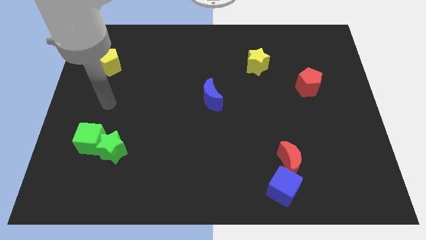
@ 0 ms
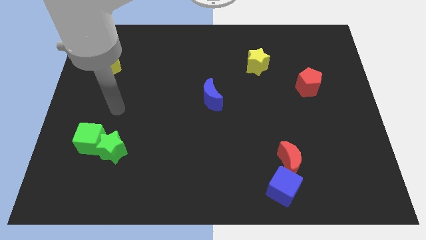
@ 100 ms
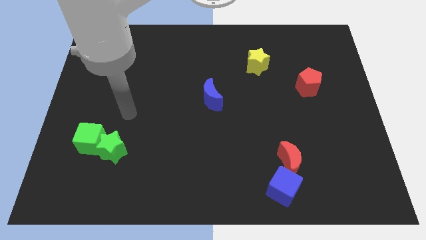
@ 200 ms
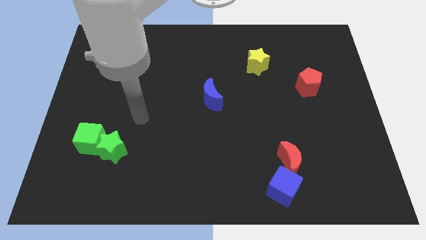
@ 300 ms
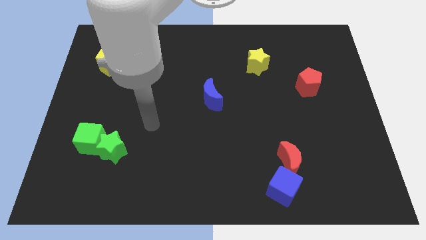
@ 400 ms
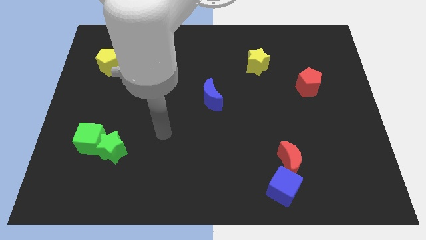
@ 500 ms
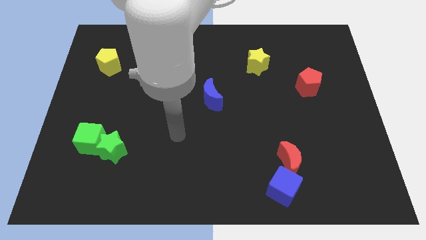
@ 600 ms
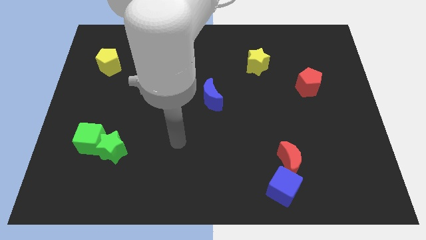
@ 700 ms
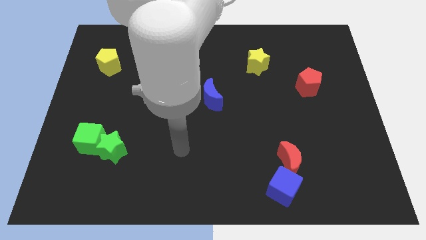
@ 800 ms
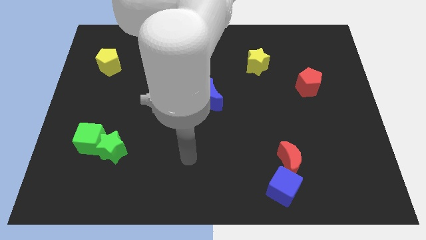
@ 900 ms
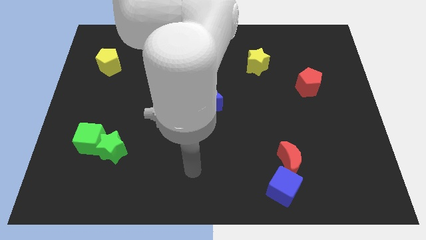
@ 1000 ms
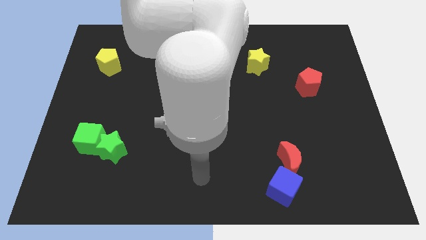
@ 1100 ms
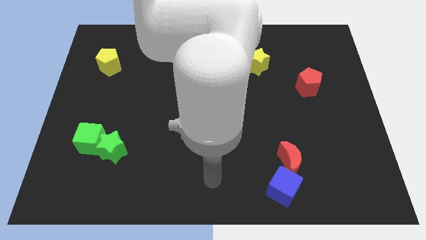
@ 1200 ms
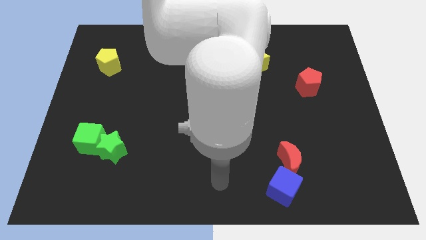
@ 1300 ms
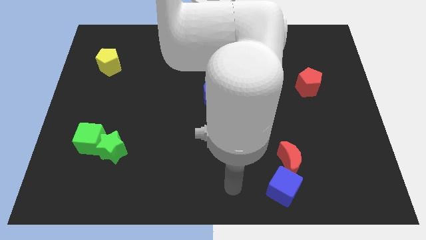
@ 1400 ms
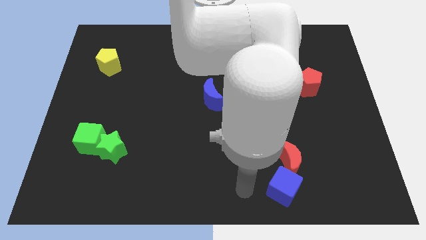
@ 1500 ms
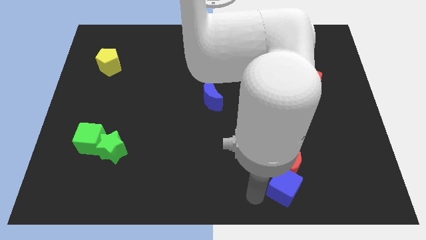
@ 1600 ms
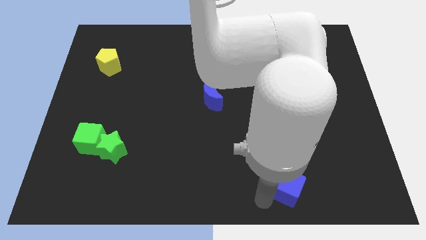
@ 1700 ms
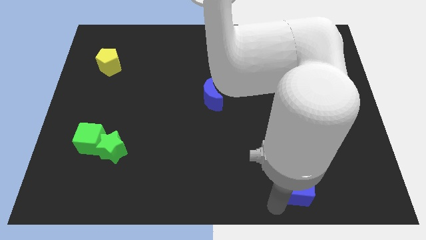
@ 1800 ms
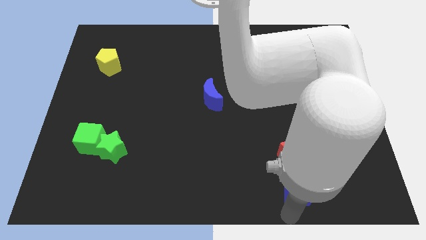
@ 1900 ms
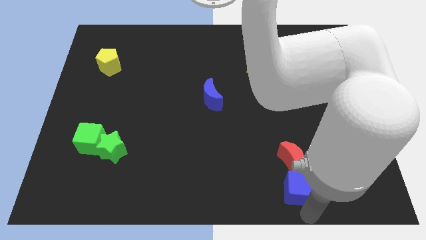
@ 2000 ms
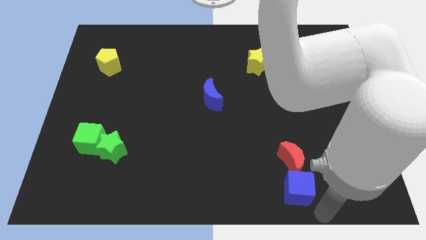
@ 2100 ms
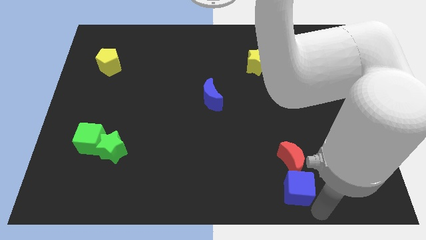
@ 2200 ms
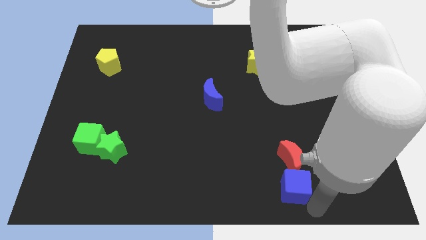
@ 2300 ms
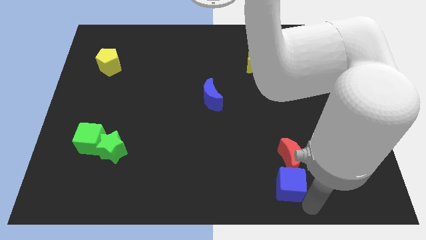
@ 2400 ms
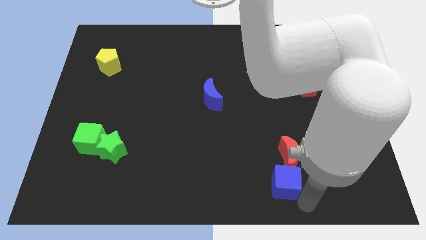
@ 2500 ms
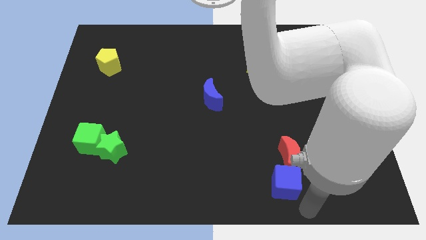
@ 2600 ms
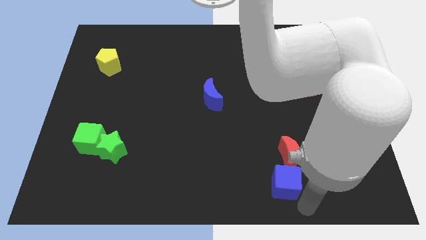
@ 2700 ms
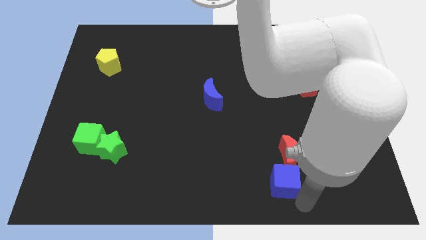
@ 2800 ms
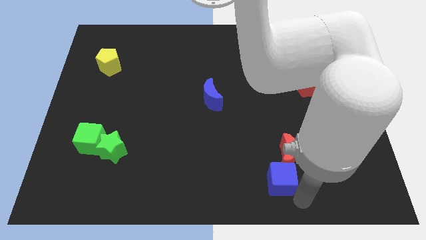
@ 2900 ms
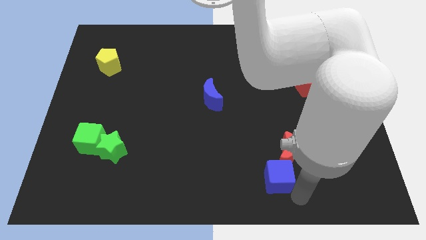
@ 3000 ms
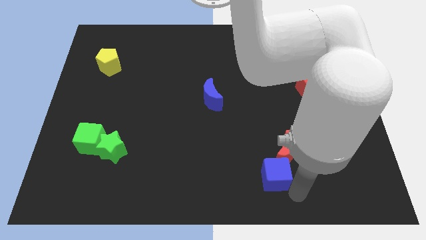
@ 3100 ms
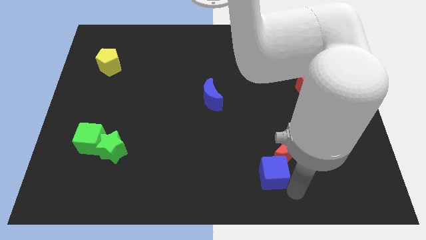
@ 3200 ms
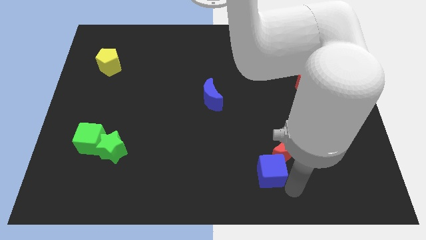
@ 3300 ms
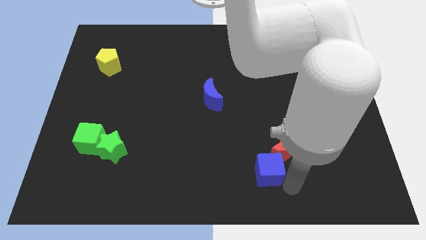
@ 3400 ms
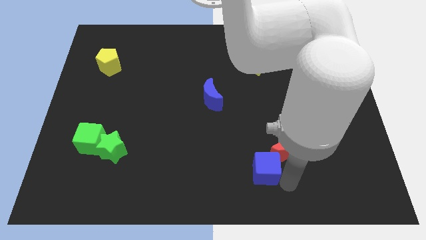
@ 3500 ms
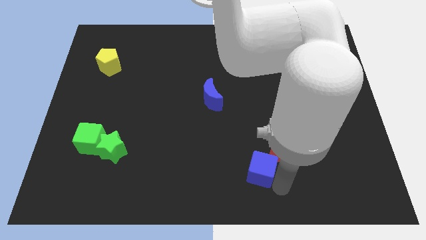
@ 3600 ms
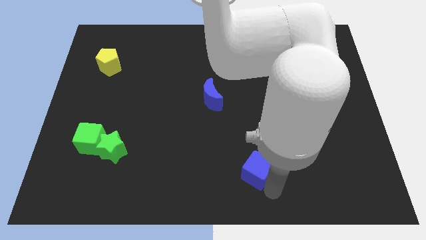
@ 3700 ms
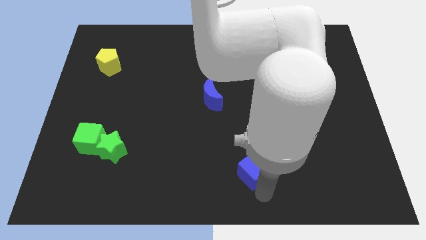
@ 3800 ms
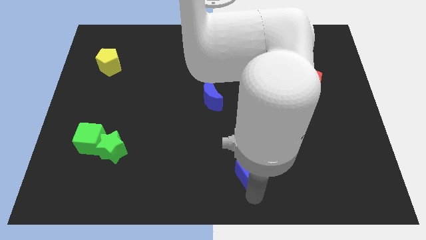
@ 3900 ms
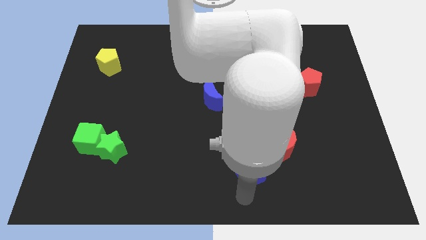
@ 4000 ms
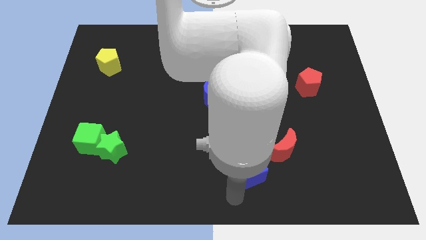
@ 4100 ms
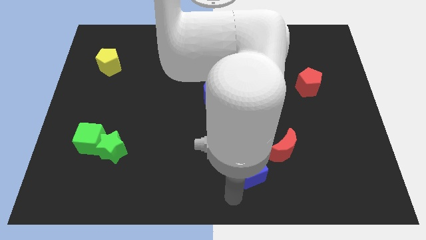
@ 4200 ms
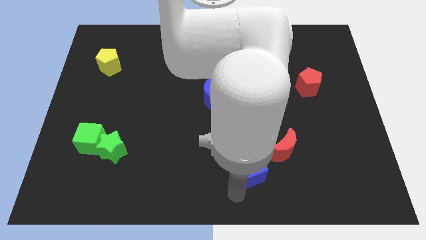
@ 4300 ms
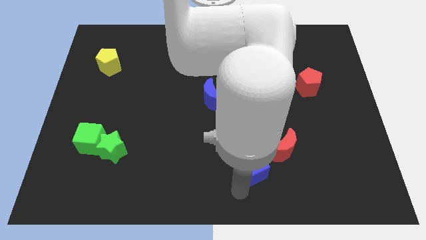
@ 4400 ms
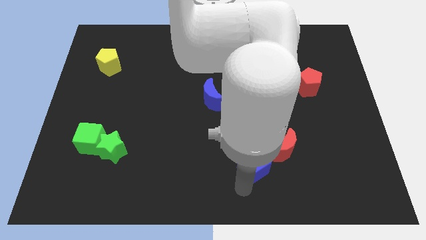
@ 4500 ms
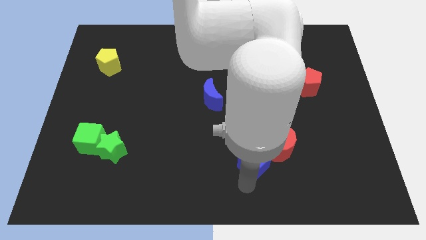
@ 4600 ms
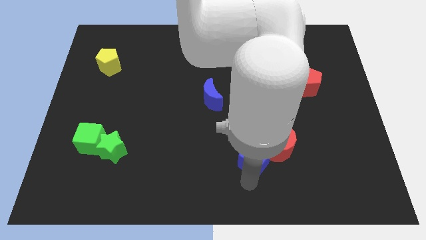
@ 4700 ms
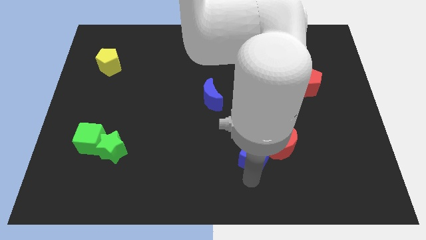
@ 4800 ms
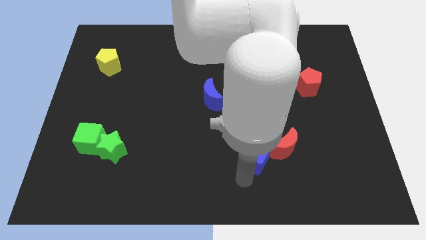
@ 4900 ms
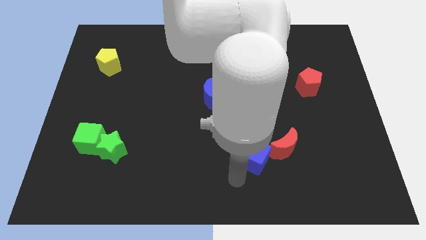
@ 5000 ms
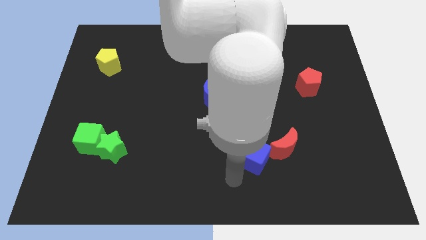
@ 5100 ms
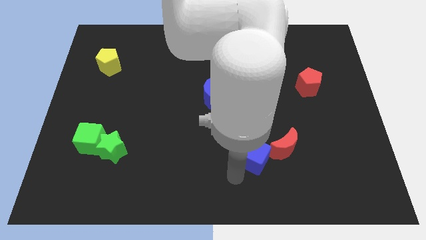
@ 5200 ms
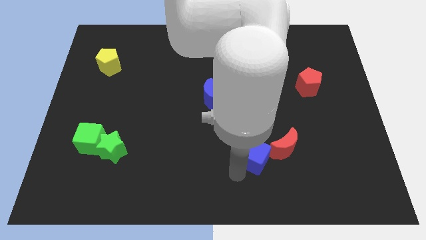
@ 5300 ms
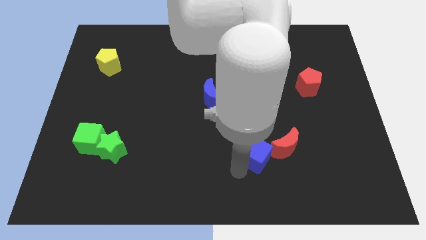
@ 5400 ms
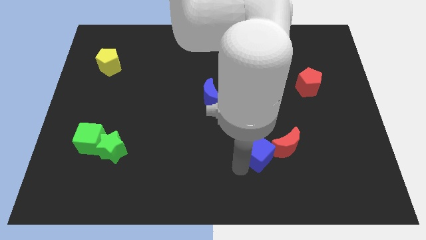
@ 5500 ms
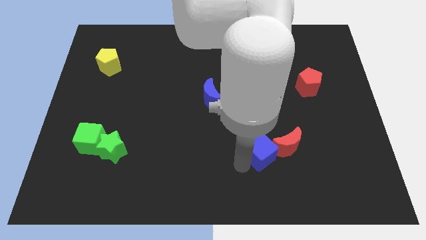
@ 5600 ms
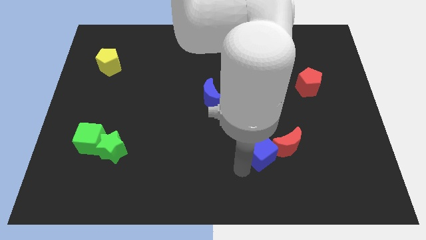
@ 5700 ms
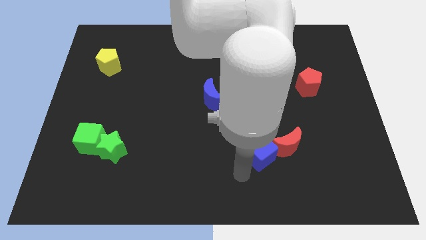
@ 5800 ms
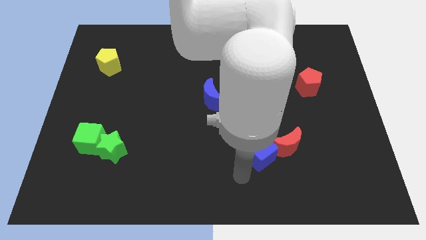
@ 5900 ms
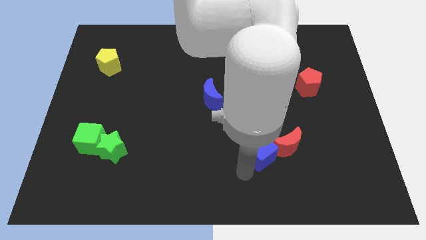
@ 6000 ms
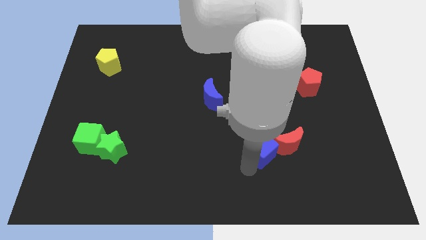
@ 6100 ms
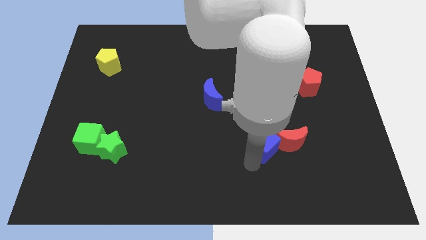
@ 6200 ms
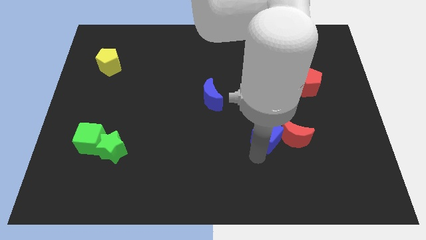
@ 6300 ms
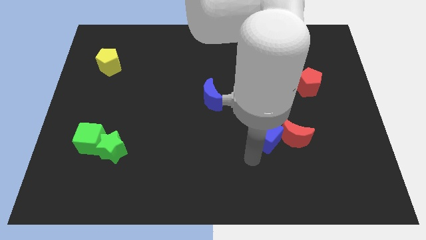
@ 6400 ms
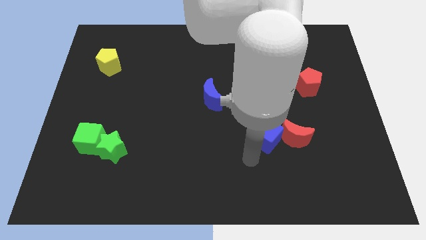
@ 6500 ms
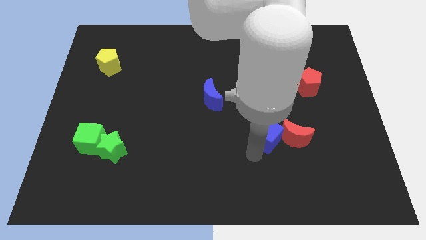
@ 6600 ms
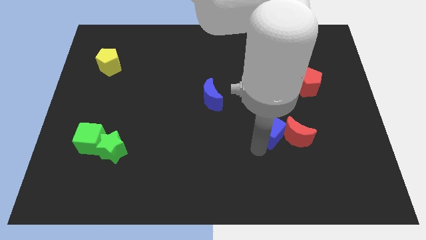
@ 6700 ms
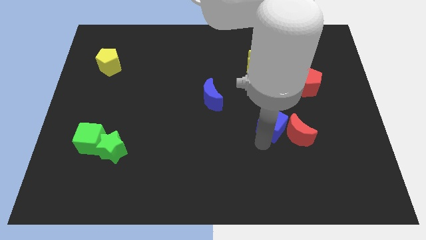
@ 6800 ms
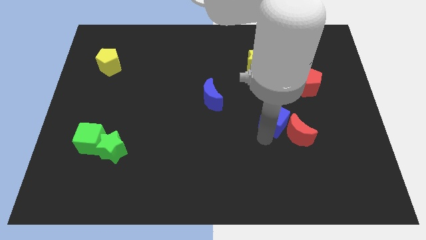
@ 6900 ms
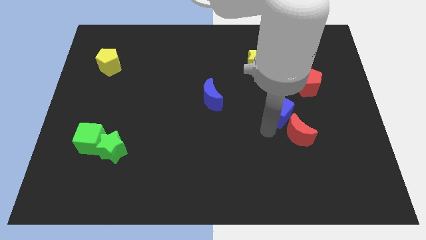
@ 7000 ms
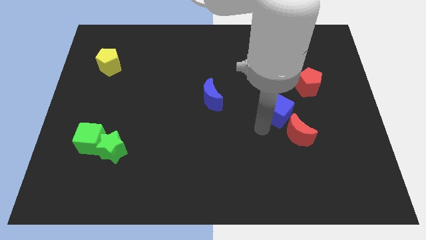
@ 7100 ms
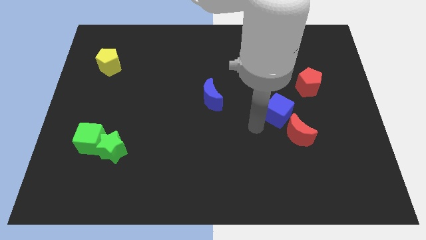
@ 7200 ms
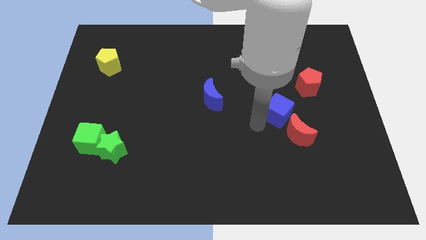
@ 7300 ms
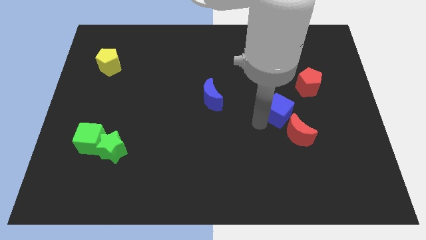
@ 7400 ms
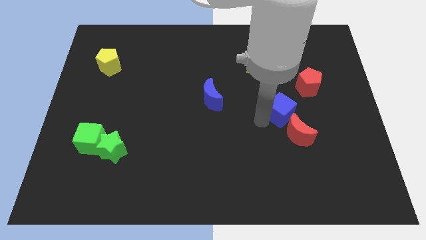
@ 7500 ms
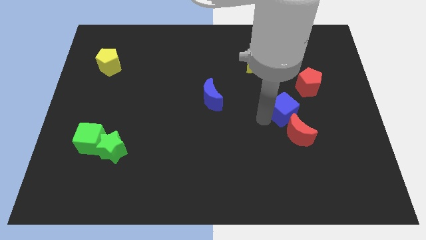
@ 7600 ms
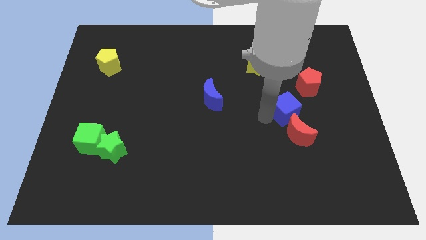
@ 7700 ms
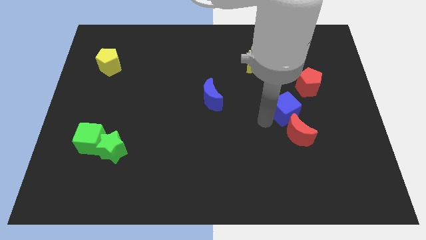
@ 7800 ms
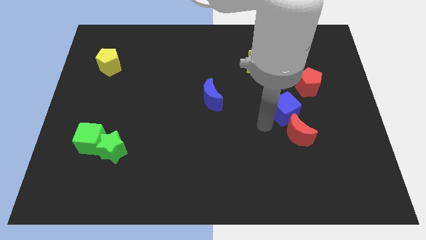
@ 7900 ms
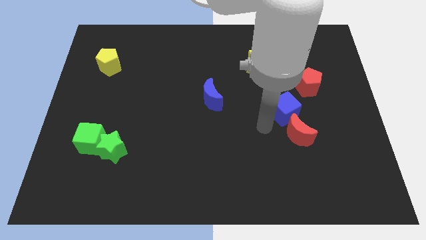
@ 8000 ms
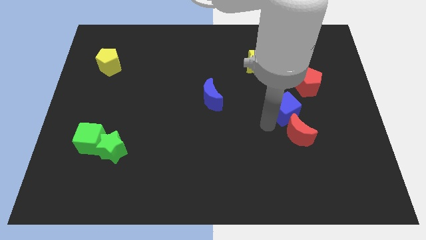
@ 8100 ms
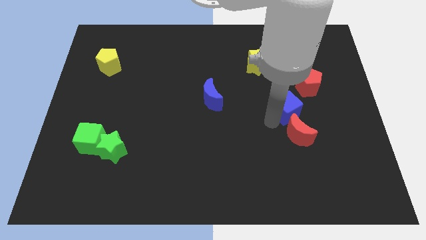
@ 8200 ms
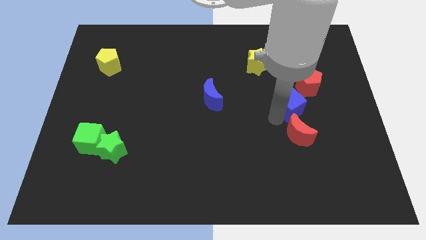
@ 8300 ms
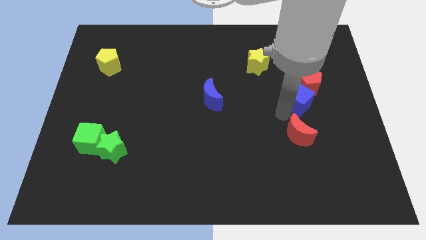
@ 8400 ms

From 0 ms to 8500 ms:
put the blue cube towards the red pentagon
